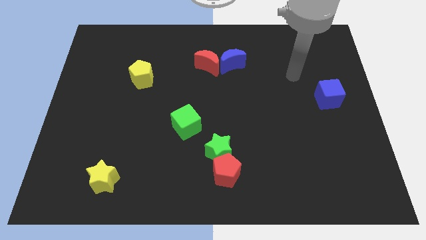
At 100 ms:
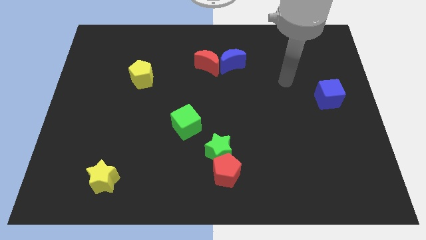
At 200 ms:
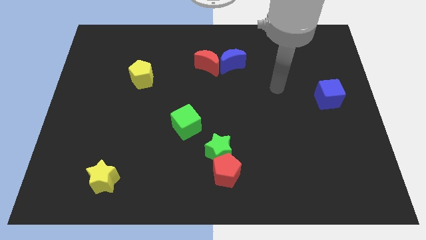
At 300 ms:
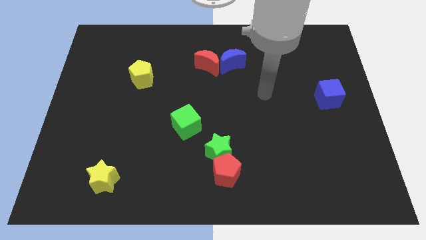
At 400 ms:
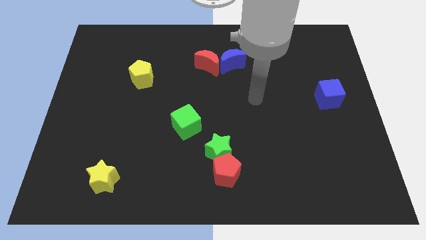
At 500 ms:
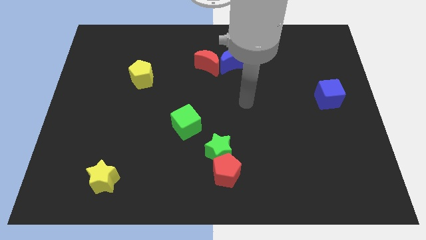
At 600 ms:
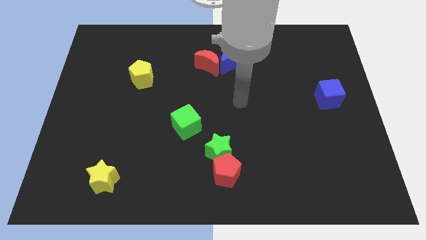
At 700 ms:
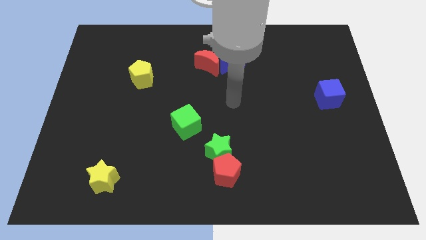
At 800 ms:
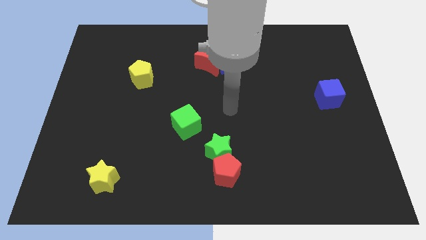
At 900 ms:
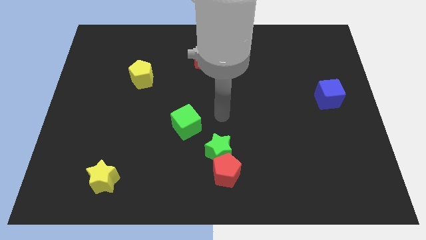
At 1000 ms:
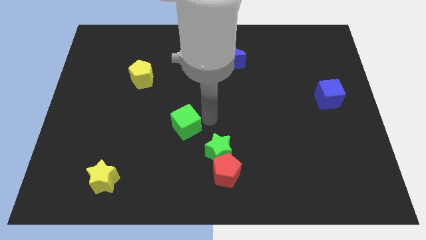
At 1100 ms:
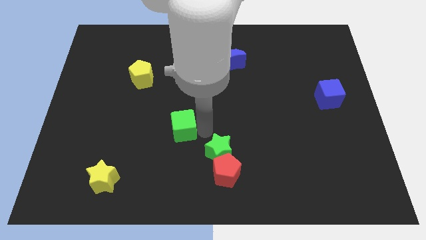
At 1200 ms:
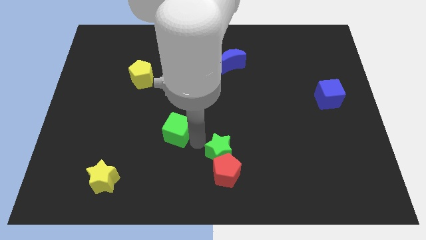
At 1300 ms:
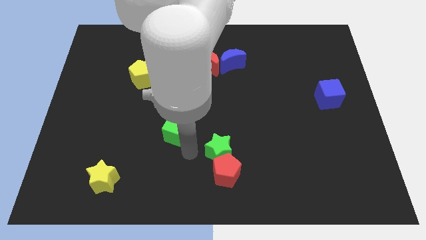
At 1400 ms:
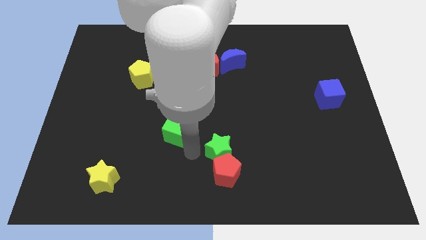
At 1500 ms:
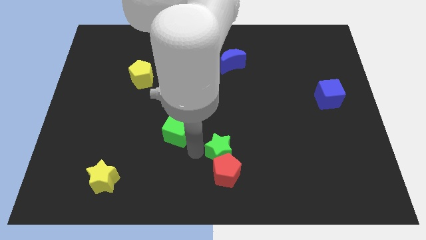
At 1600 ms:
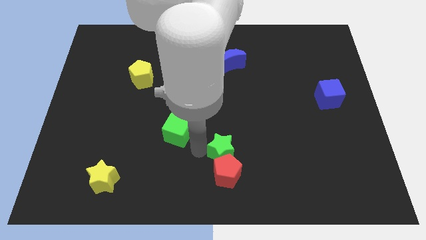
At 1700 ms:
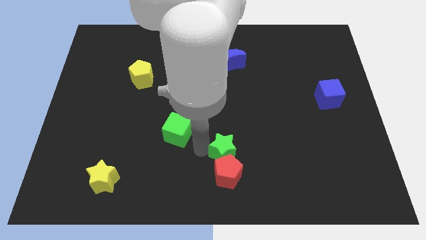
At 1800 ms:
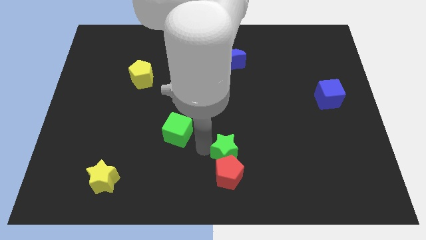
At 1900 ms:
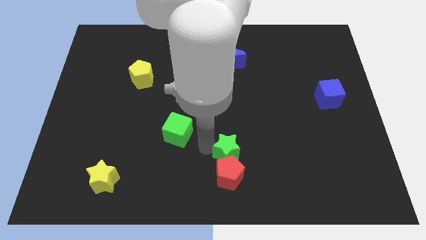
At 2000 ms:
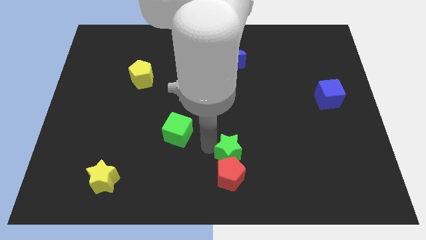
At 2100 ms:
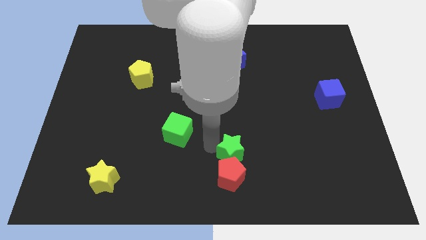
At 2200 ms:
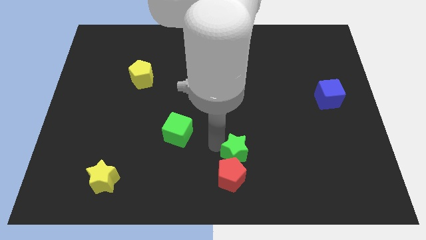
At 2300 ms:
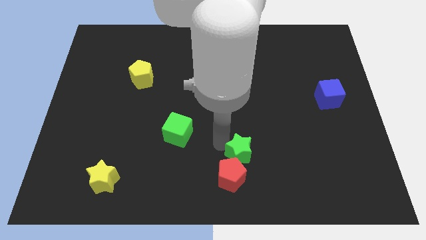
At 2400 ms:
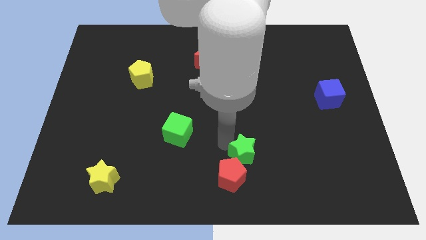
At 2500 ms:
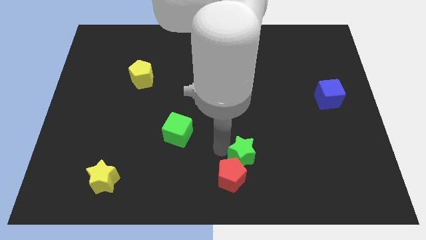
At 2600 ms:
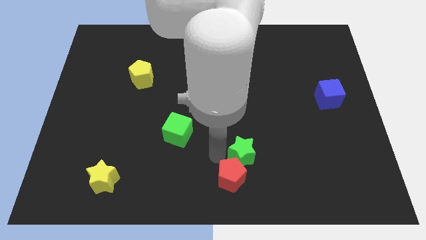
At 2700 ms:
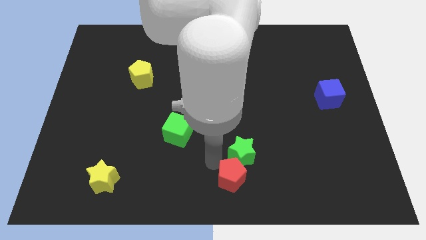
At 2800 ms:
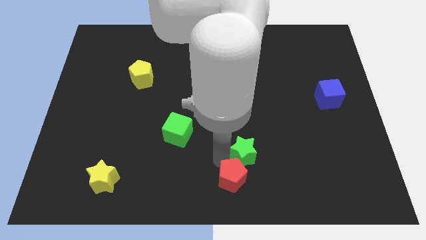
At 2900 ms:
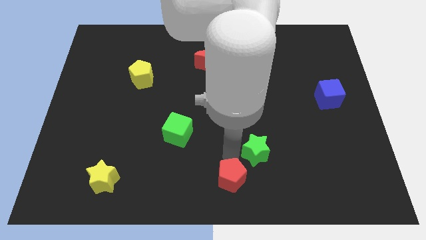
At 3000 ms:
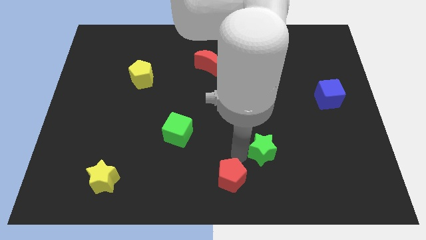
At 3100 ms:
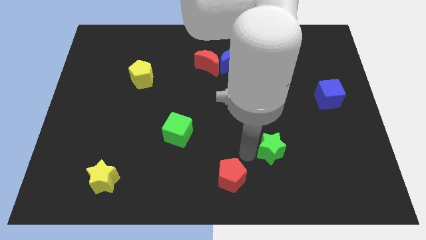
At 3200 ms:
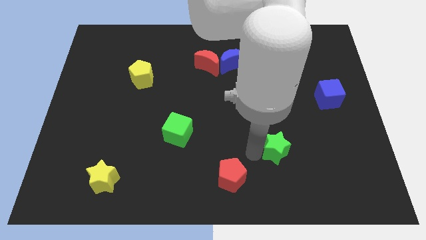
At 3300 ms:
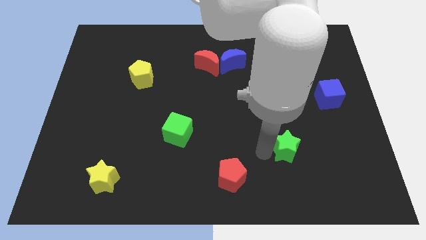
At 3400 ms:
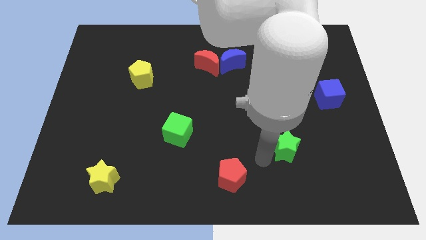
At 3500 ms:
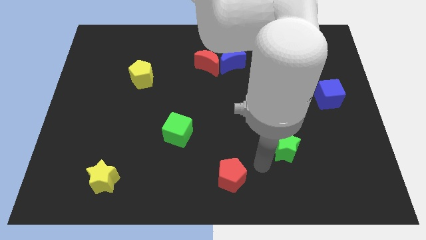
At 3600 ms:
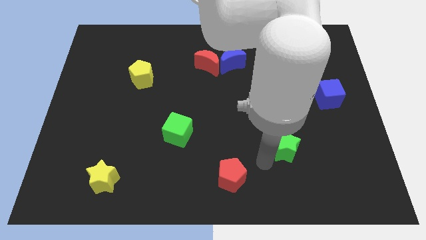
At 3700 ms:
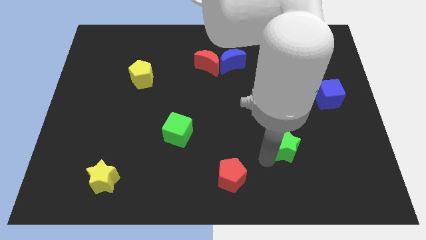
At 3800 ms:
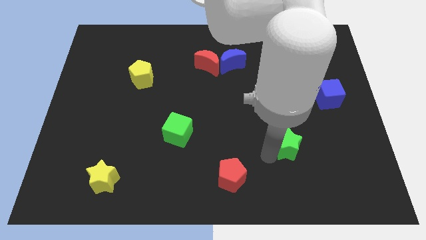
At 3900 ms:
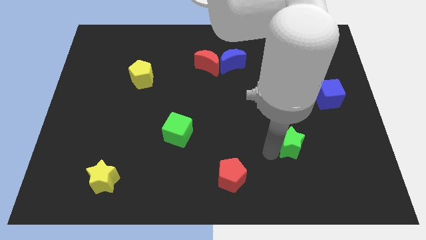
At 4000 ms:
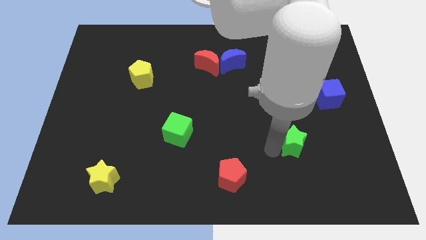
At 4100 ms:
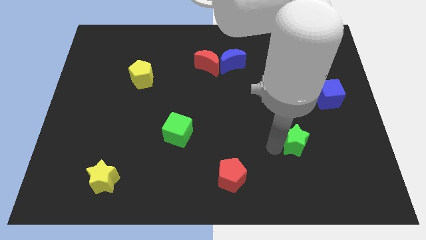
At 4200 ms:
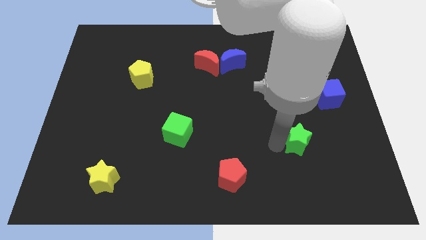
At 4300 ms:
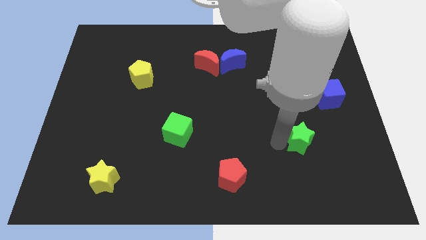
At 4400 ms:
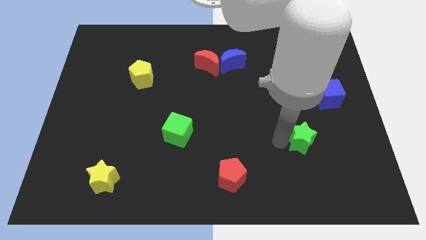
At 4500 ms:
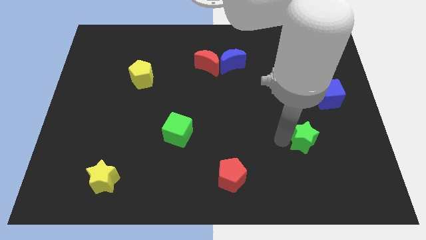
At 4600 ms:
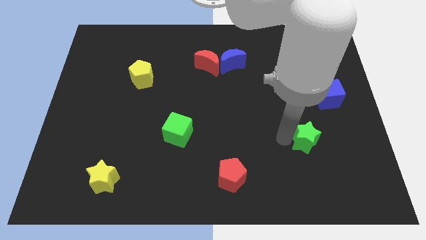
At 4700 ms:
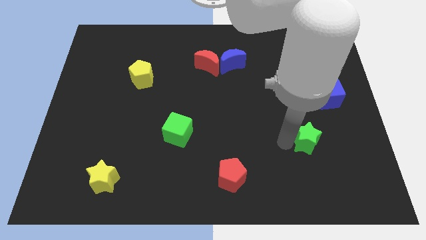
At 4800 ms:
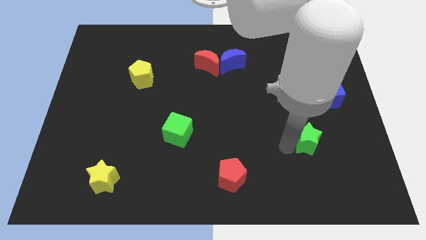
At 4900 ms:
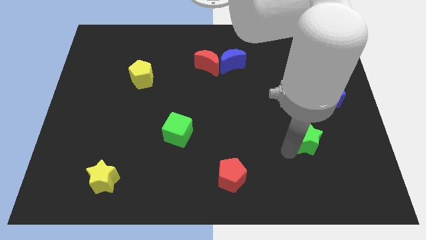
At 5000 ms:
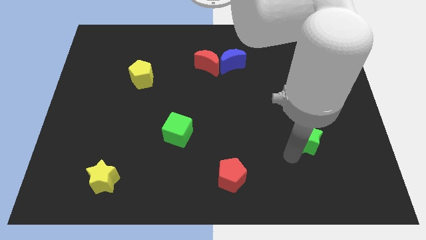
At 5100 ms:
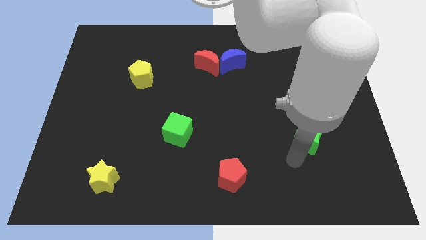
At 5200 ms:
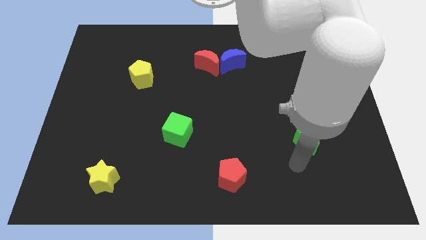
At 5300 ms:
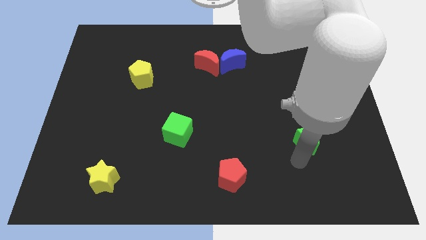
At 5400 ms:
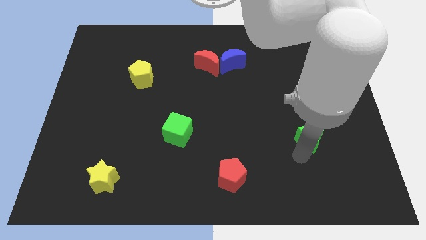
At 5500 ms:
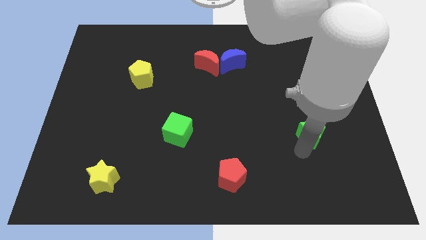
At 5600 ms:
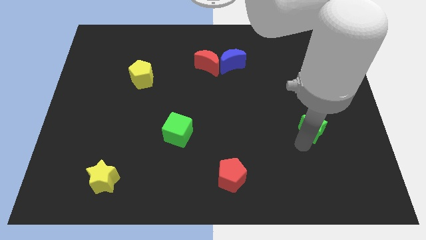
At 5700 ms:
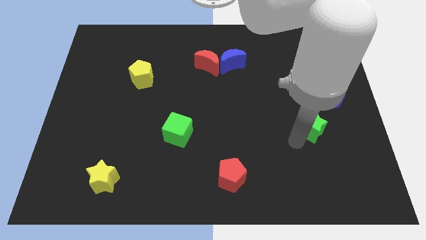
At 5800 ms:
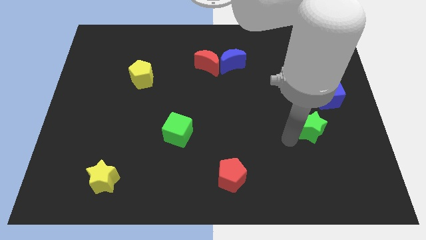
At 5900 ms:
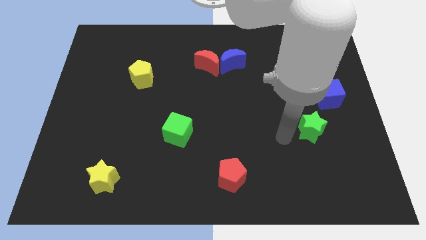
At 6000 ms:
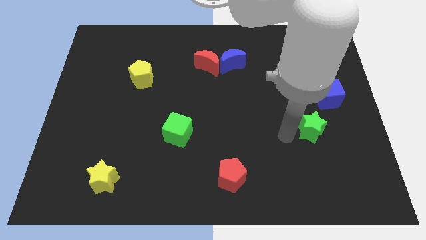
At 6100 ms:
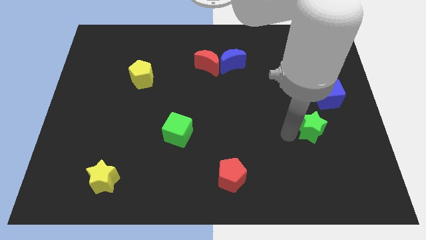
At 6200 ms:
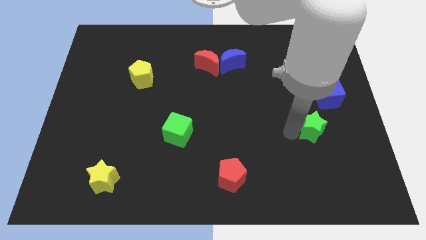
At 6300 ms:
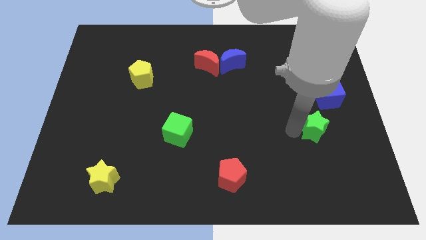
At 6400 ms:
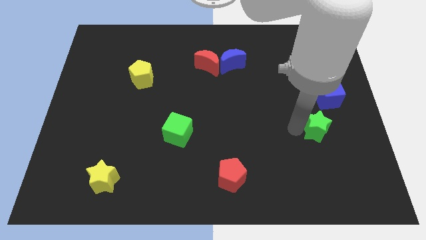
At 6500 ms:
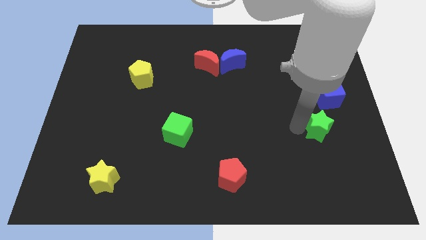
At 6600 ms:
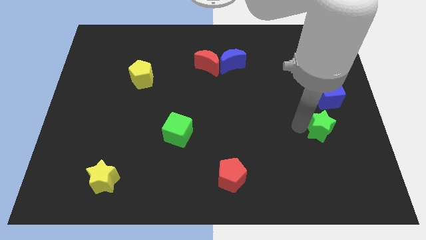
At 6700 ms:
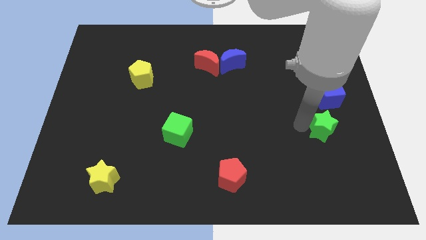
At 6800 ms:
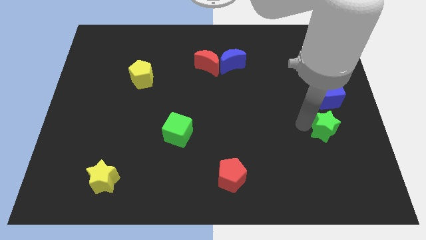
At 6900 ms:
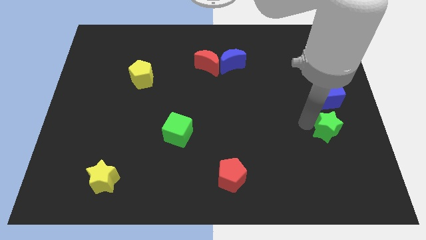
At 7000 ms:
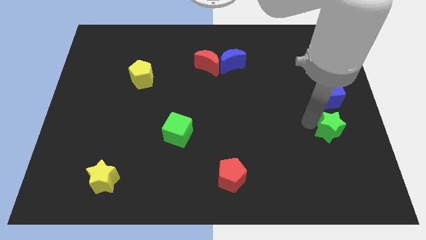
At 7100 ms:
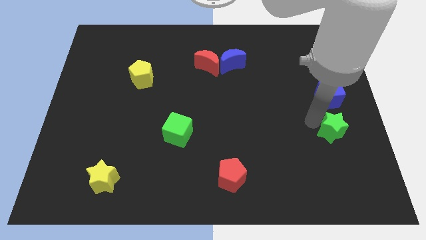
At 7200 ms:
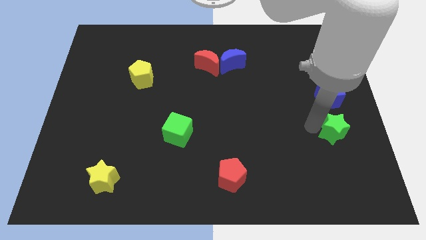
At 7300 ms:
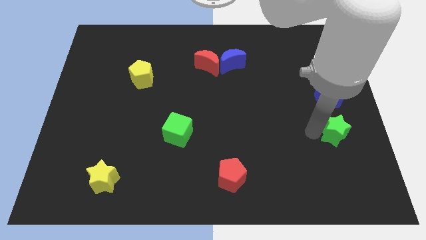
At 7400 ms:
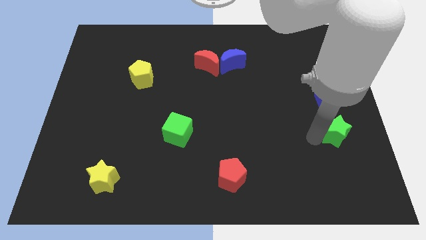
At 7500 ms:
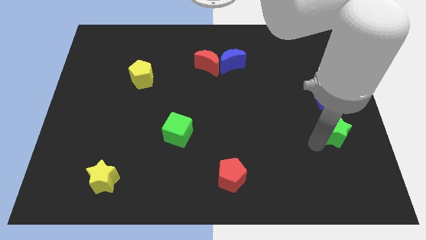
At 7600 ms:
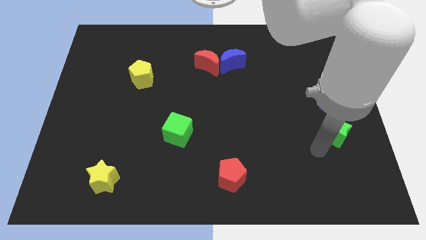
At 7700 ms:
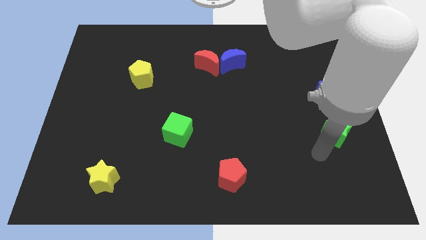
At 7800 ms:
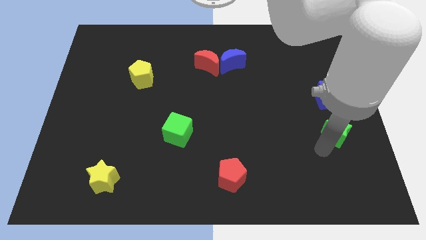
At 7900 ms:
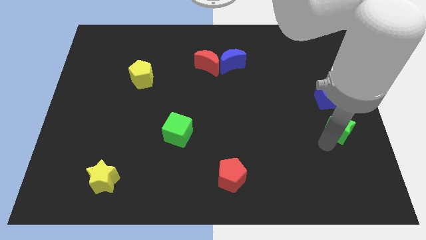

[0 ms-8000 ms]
push the green star to the center right
